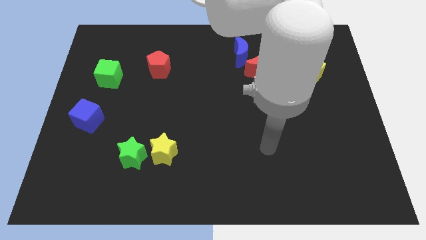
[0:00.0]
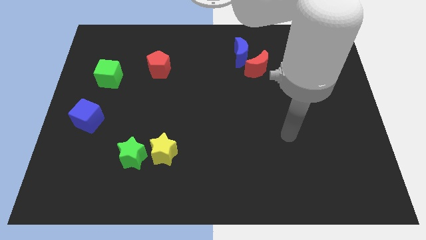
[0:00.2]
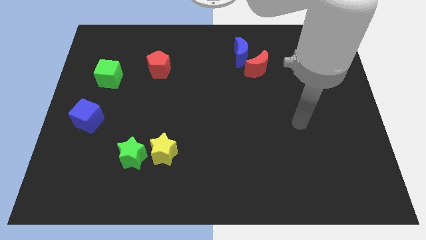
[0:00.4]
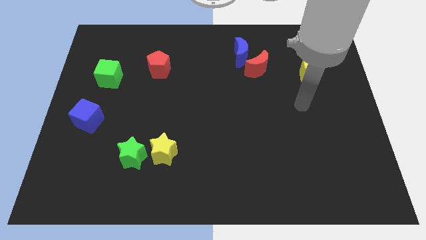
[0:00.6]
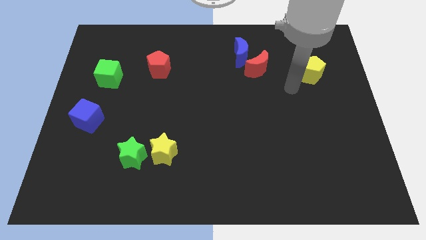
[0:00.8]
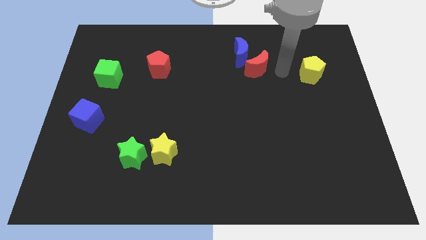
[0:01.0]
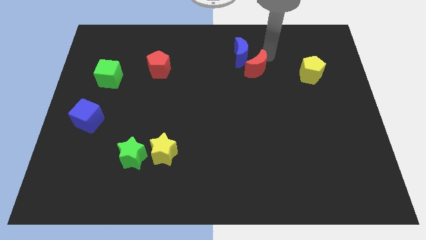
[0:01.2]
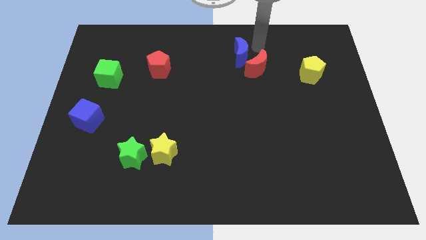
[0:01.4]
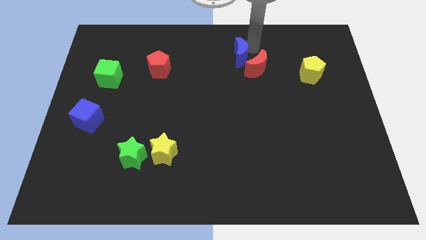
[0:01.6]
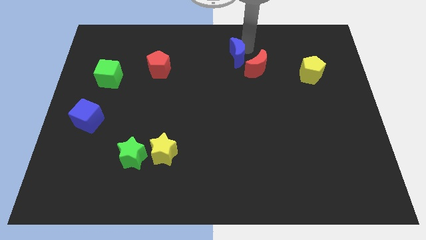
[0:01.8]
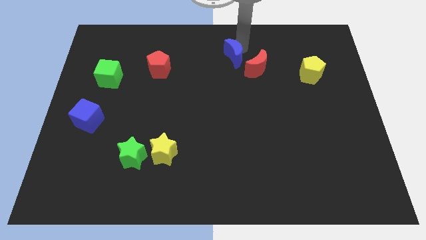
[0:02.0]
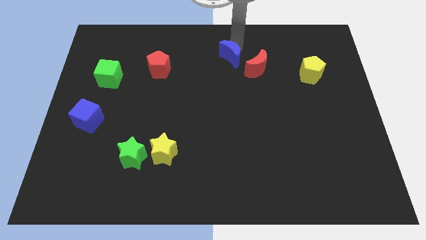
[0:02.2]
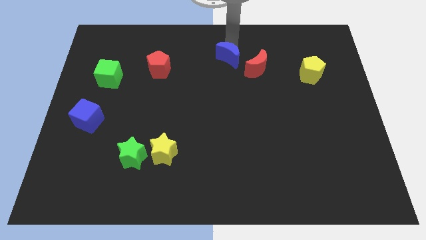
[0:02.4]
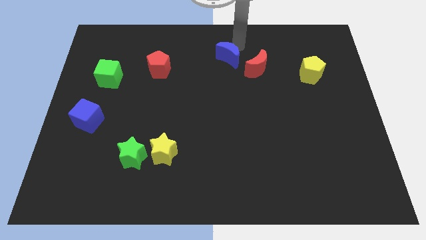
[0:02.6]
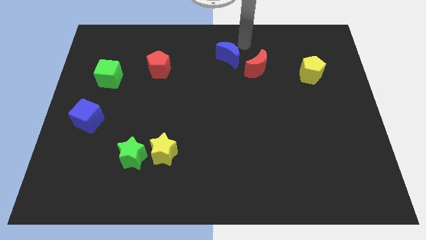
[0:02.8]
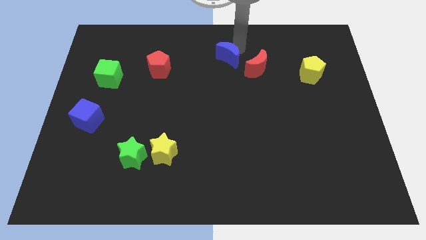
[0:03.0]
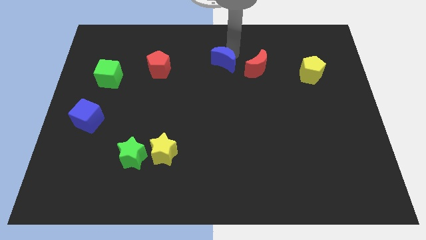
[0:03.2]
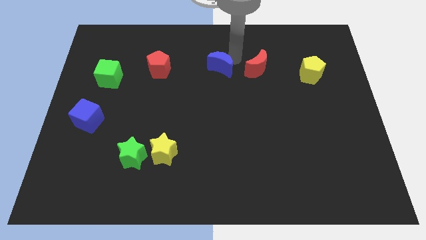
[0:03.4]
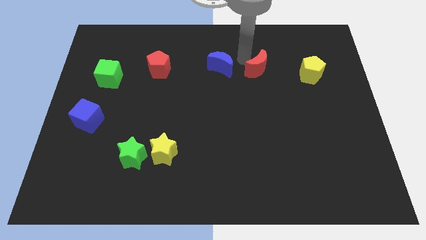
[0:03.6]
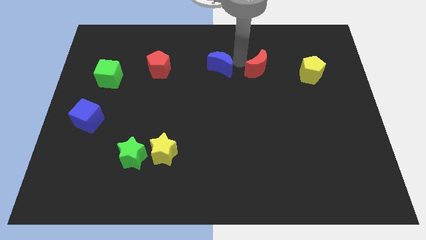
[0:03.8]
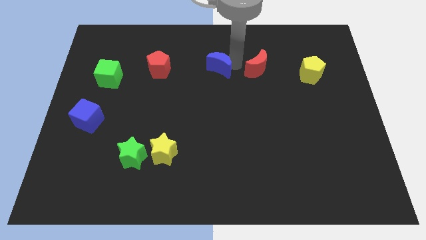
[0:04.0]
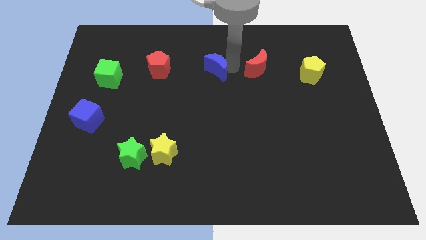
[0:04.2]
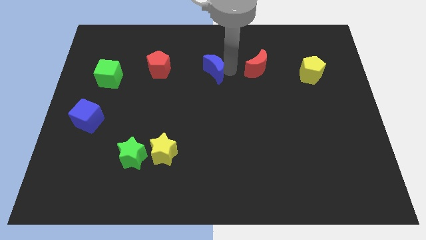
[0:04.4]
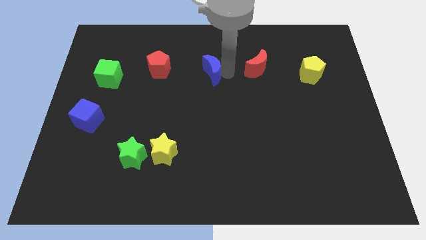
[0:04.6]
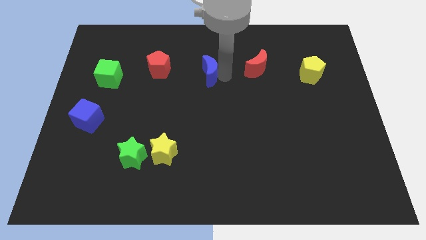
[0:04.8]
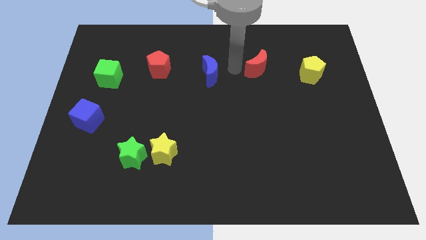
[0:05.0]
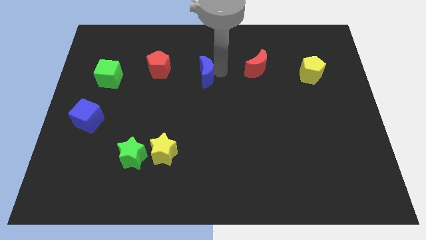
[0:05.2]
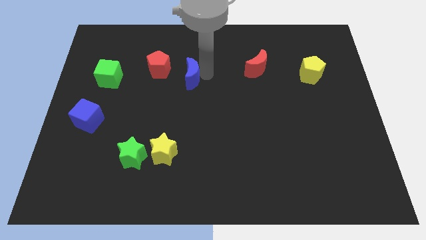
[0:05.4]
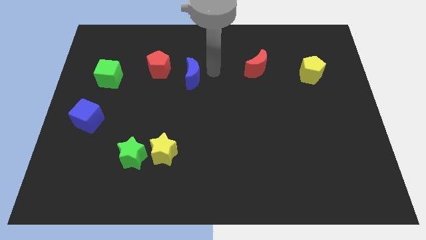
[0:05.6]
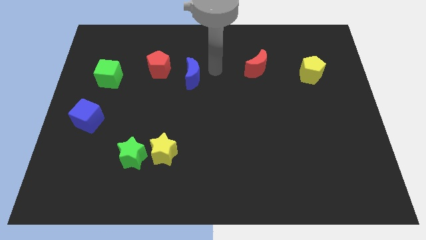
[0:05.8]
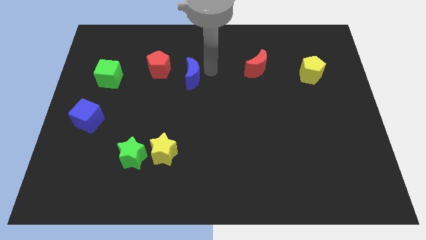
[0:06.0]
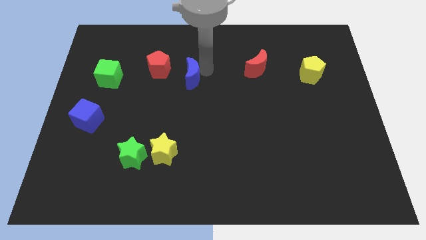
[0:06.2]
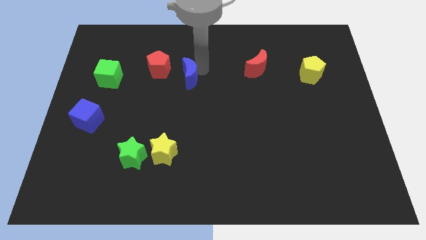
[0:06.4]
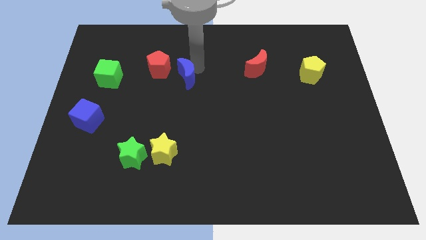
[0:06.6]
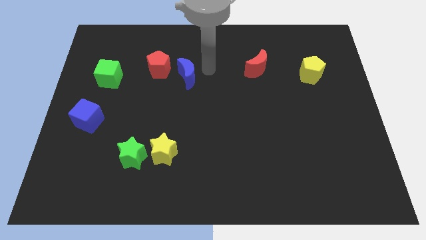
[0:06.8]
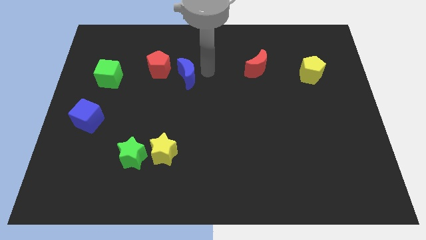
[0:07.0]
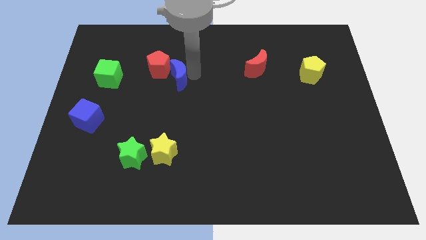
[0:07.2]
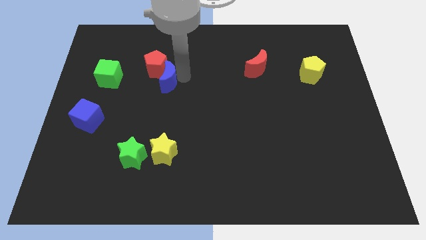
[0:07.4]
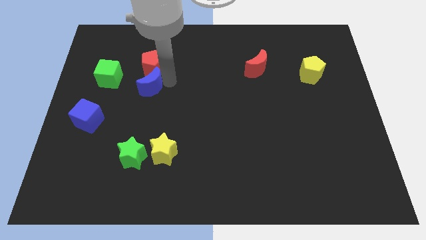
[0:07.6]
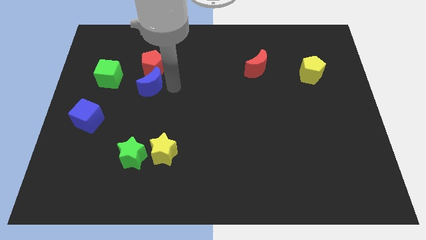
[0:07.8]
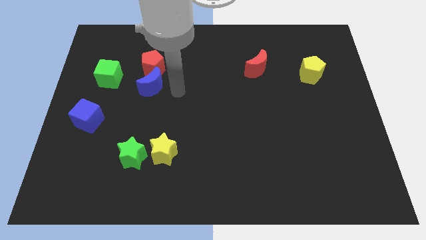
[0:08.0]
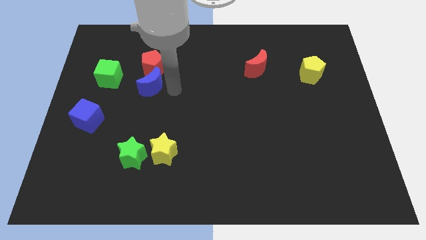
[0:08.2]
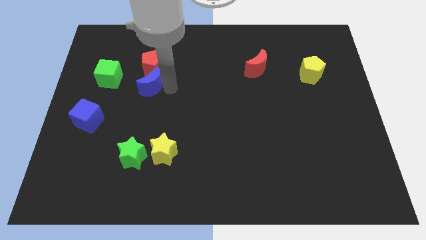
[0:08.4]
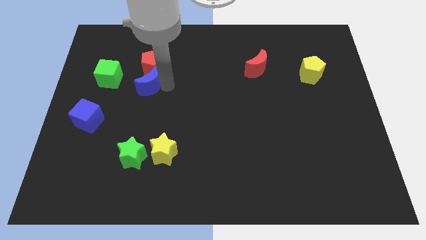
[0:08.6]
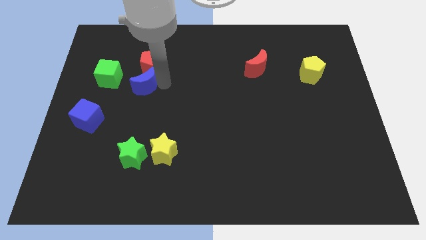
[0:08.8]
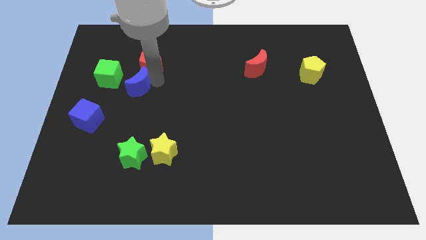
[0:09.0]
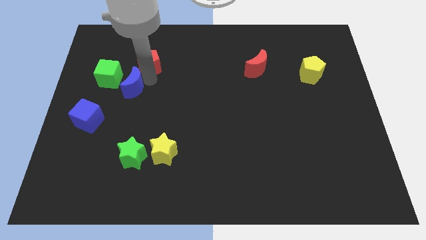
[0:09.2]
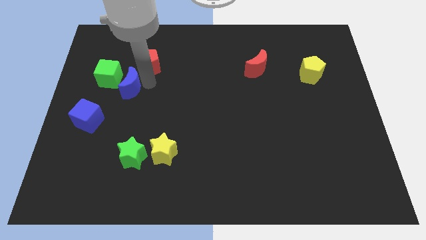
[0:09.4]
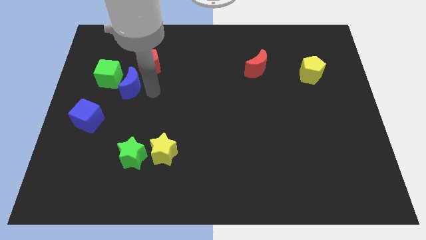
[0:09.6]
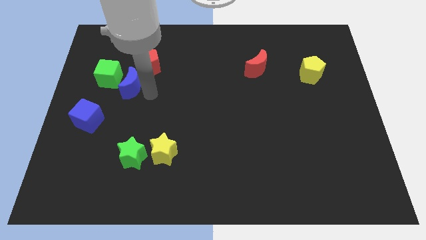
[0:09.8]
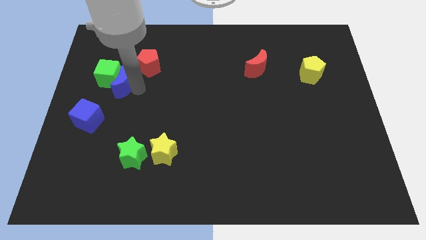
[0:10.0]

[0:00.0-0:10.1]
push the blue moon close to the green cube

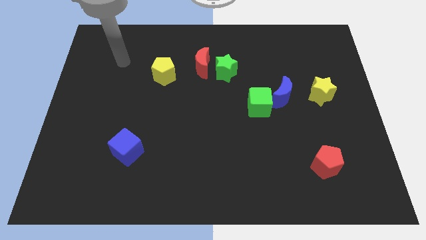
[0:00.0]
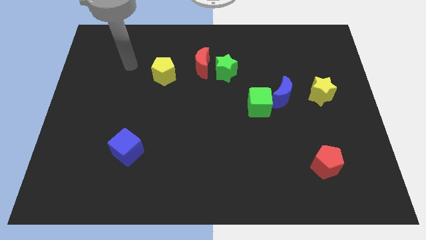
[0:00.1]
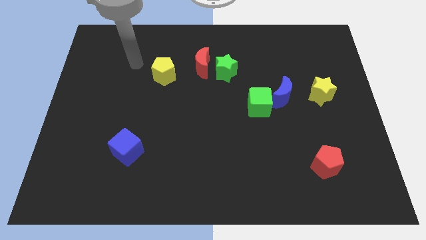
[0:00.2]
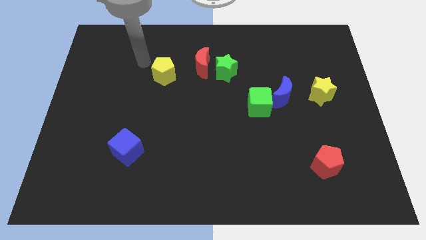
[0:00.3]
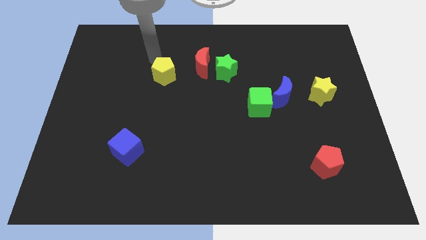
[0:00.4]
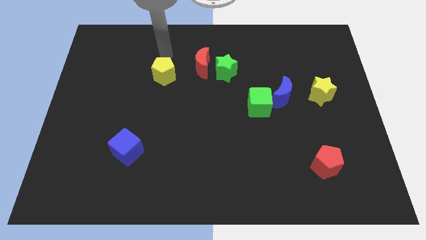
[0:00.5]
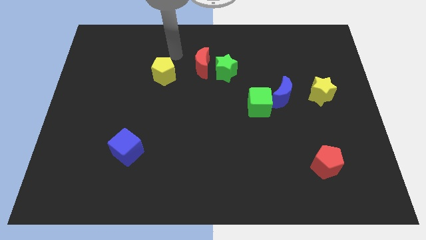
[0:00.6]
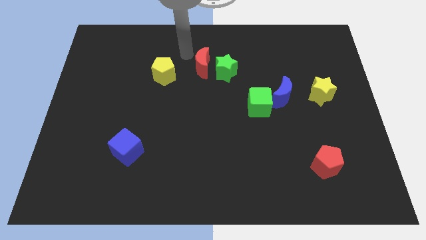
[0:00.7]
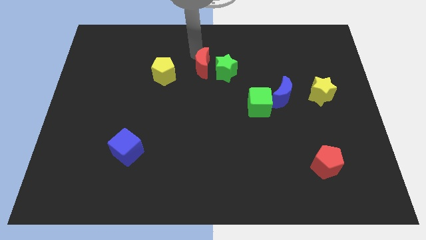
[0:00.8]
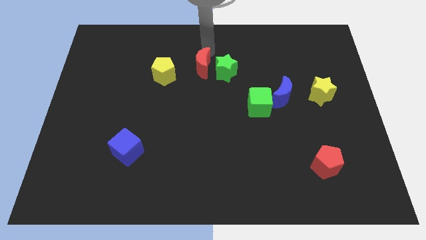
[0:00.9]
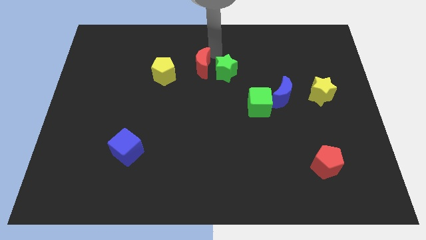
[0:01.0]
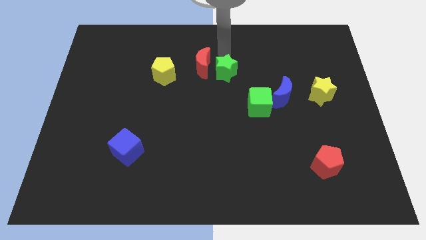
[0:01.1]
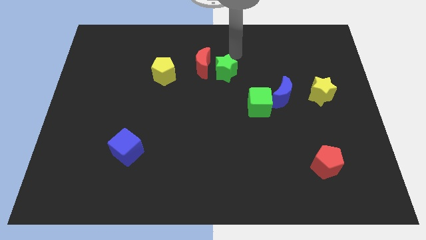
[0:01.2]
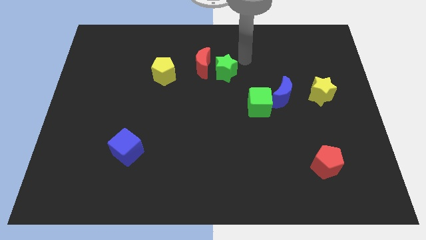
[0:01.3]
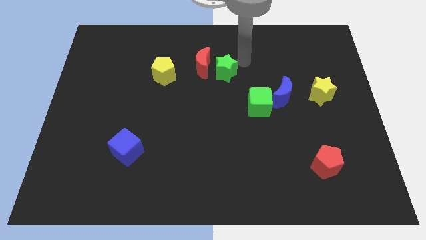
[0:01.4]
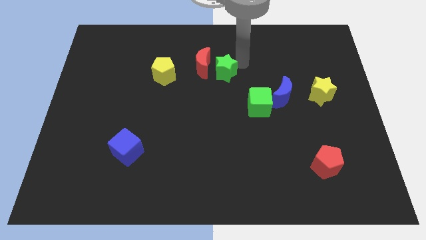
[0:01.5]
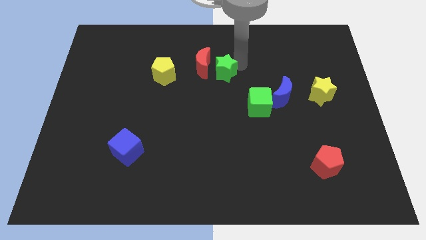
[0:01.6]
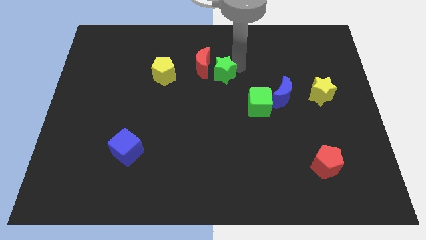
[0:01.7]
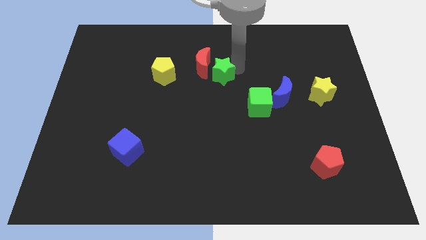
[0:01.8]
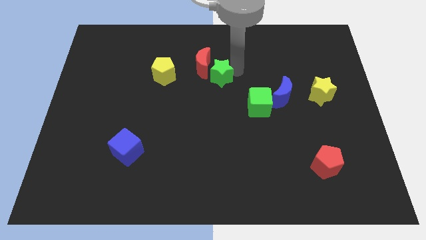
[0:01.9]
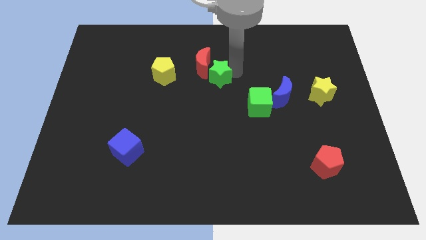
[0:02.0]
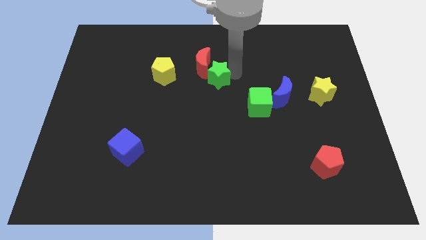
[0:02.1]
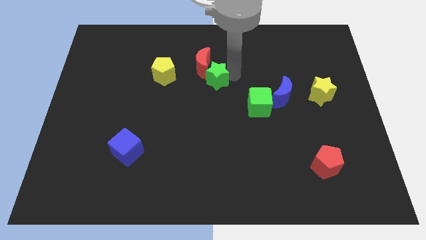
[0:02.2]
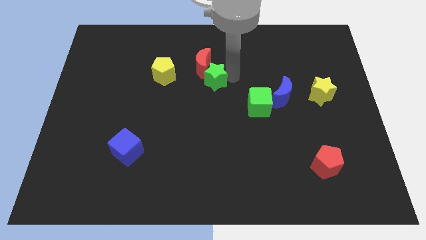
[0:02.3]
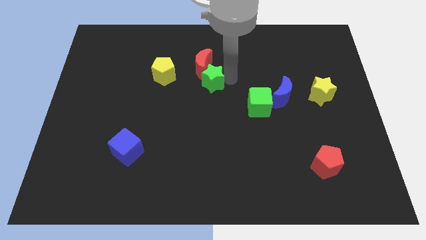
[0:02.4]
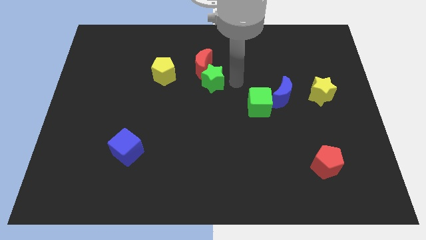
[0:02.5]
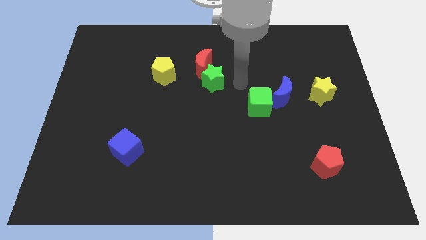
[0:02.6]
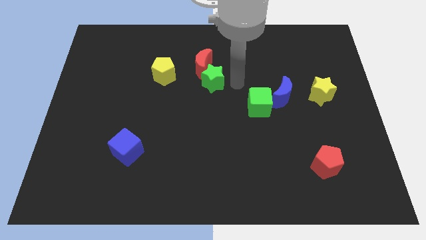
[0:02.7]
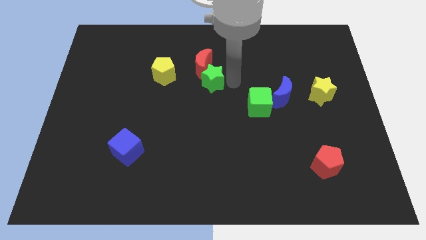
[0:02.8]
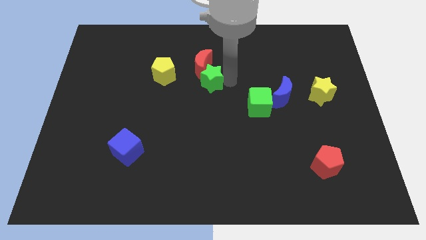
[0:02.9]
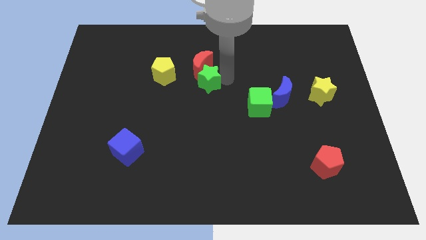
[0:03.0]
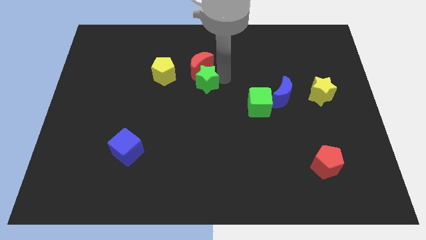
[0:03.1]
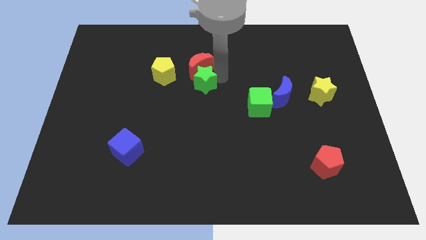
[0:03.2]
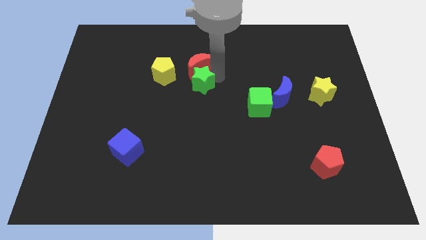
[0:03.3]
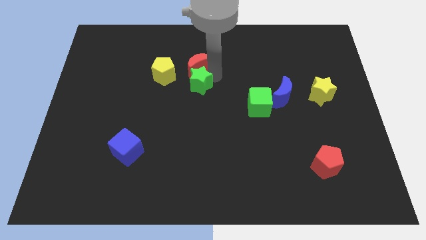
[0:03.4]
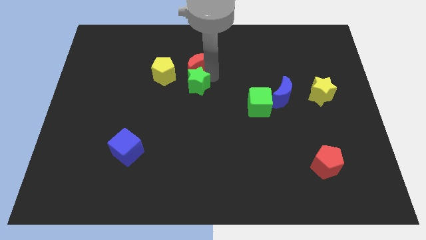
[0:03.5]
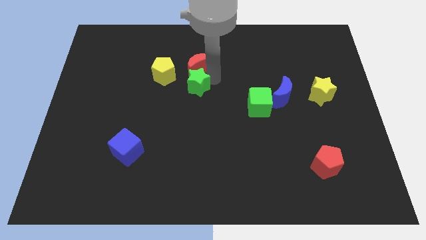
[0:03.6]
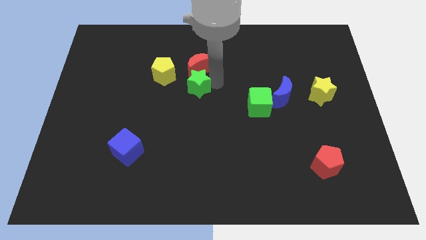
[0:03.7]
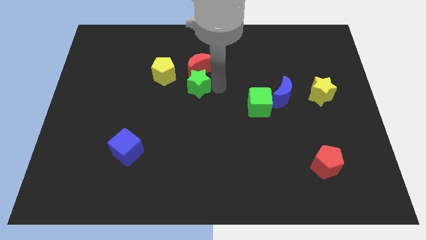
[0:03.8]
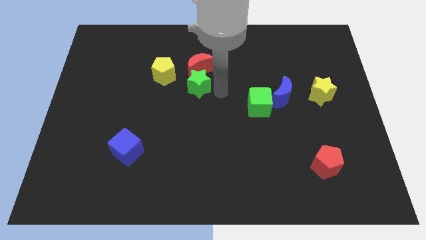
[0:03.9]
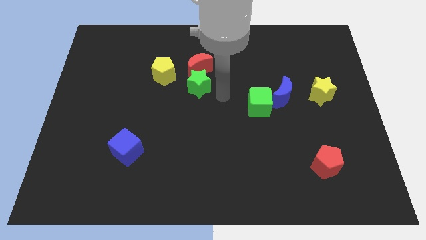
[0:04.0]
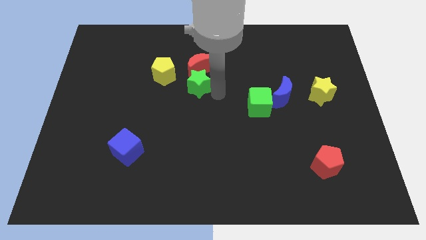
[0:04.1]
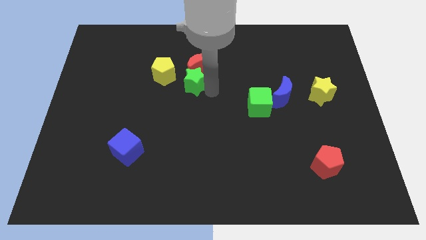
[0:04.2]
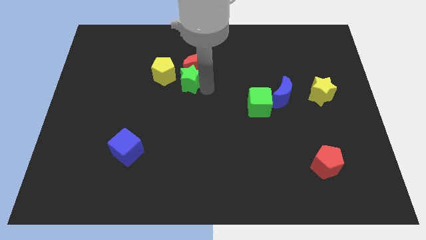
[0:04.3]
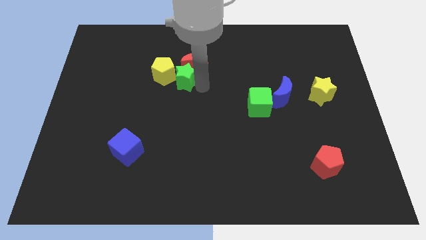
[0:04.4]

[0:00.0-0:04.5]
put the green star towards the yellow pentagon
